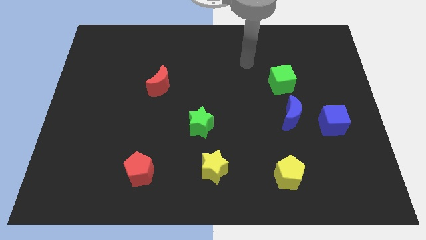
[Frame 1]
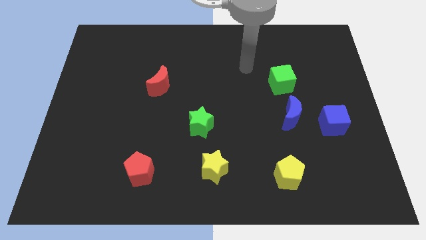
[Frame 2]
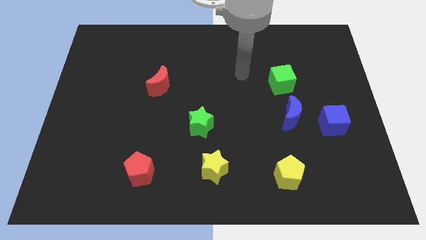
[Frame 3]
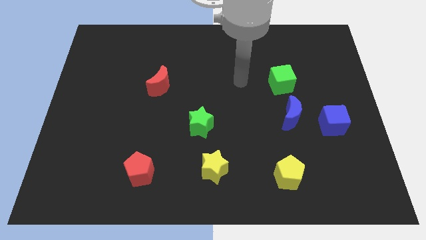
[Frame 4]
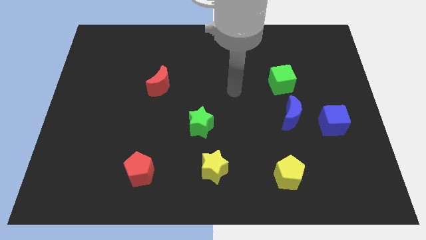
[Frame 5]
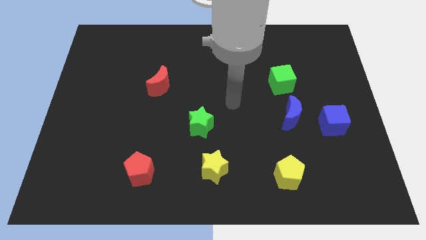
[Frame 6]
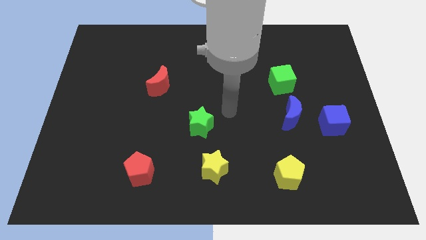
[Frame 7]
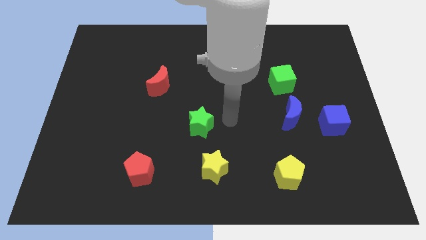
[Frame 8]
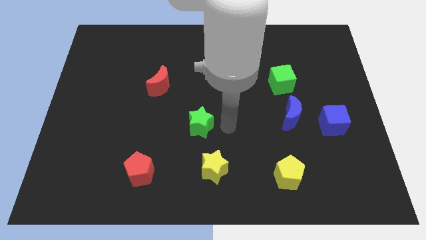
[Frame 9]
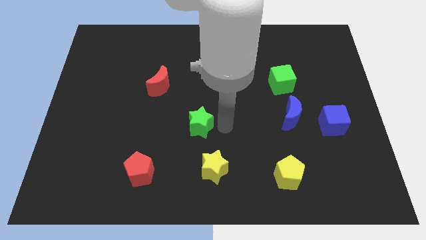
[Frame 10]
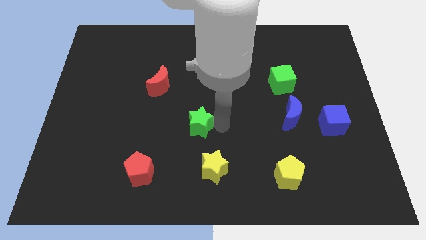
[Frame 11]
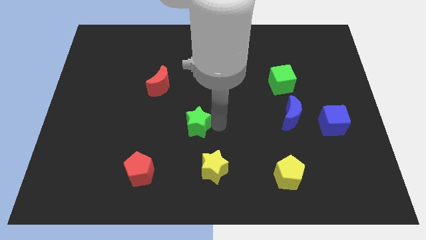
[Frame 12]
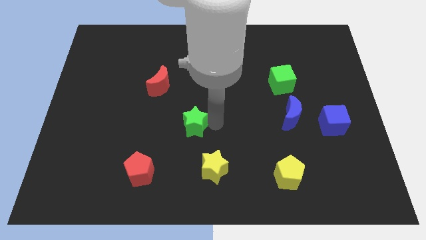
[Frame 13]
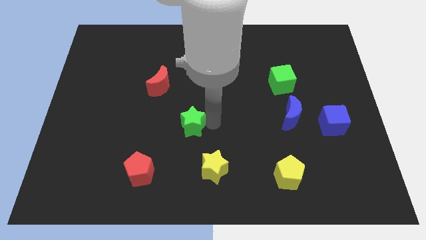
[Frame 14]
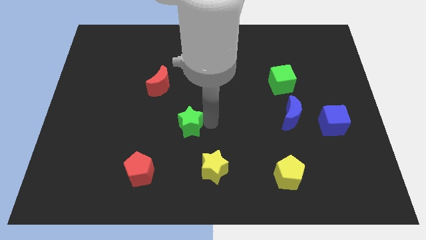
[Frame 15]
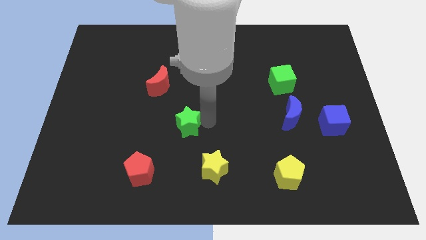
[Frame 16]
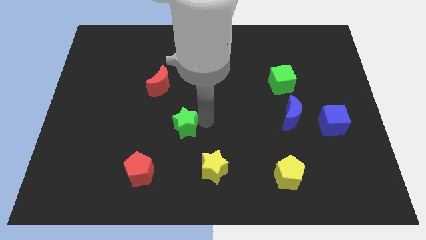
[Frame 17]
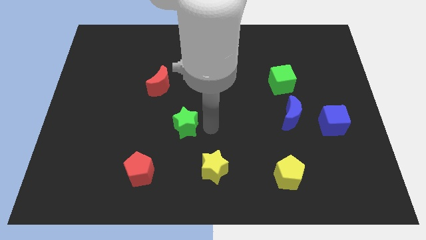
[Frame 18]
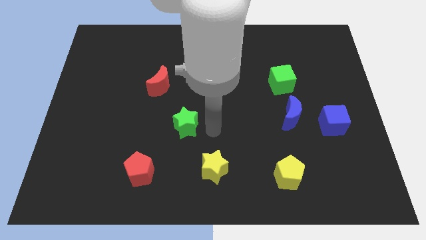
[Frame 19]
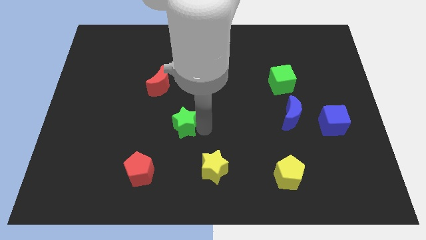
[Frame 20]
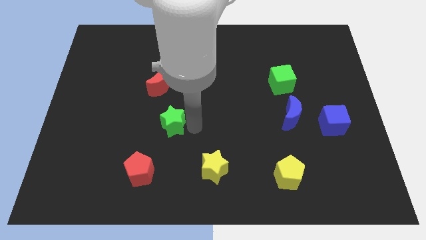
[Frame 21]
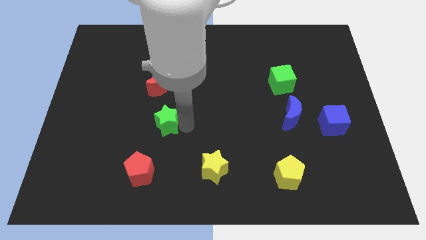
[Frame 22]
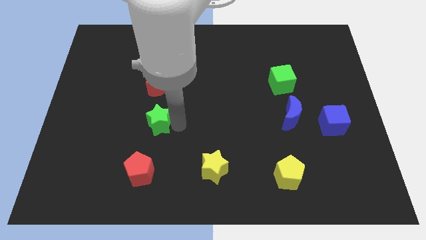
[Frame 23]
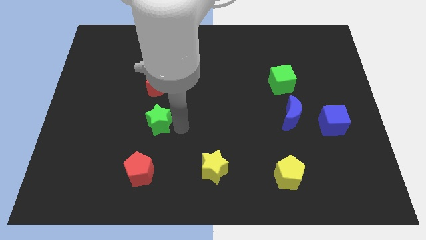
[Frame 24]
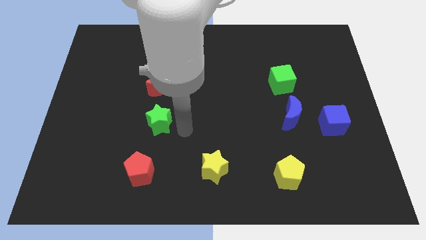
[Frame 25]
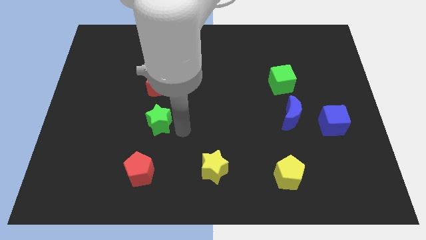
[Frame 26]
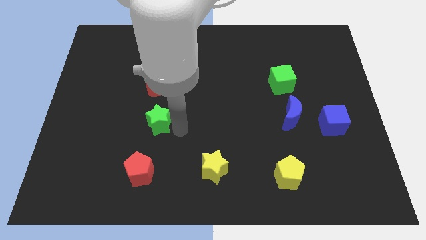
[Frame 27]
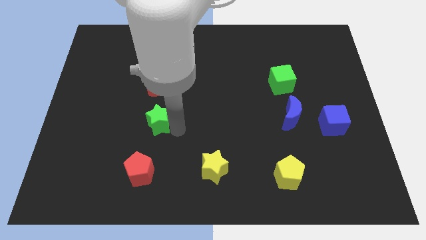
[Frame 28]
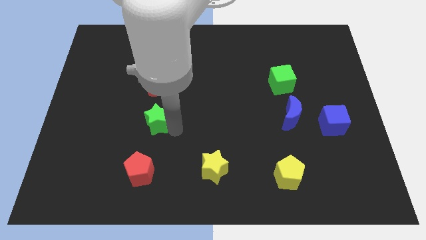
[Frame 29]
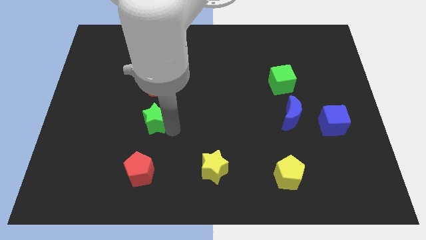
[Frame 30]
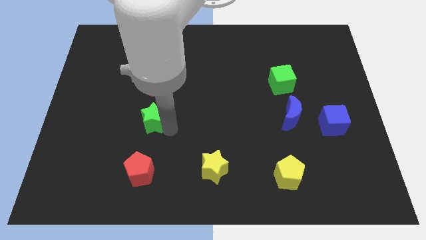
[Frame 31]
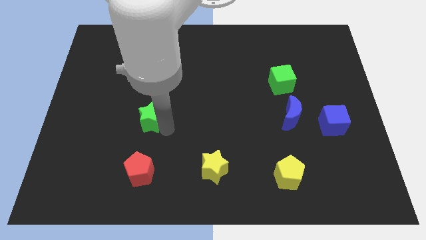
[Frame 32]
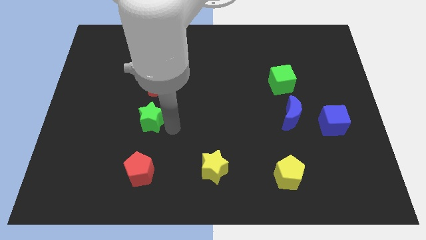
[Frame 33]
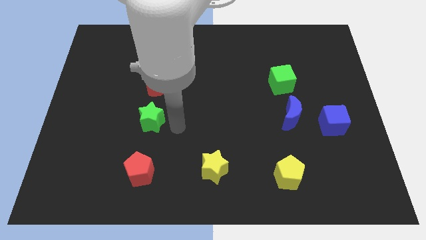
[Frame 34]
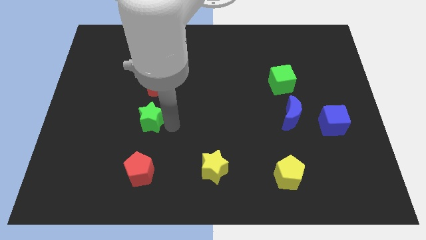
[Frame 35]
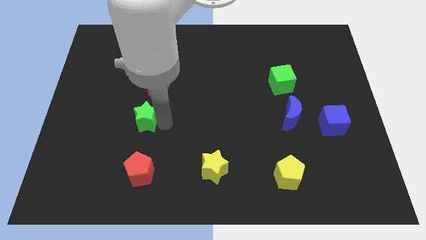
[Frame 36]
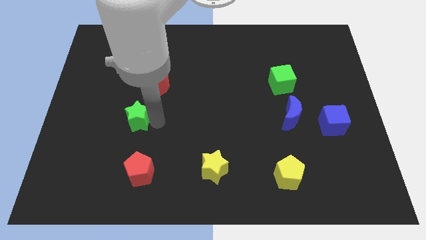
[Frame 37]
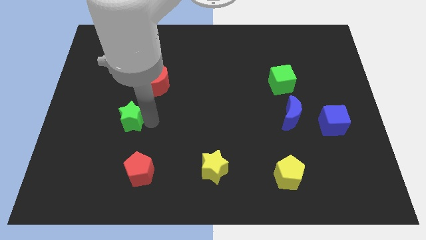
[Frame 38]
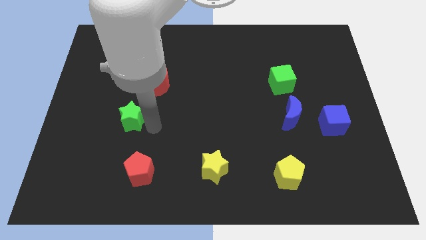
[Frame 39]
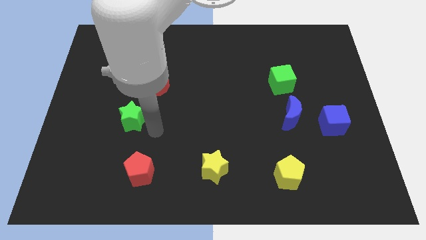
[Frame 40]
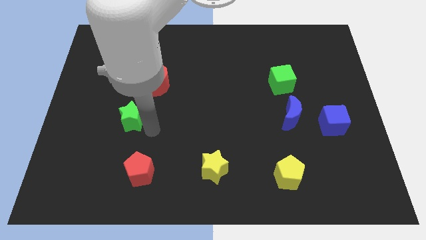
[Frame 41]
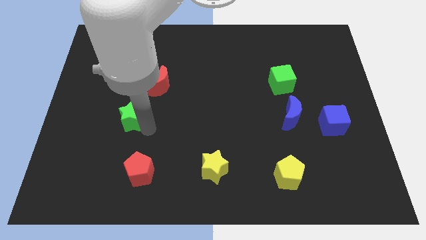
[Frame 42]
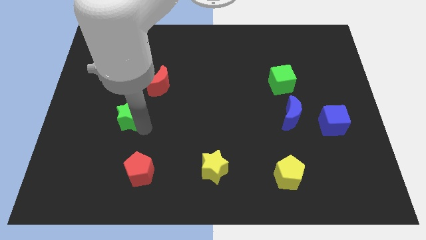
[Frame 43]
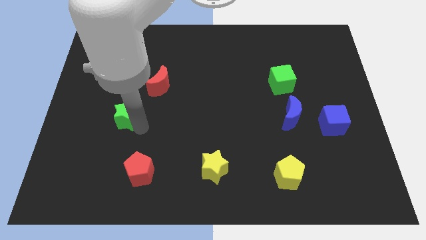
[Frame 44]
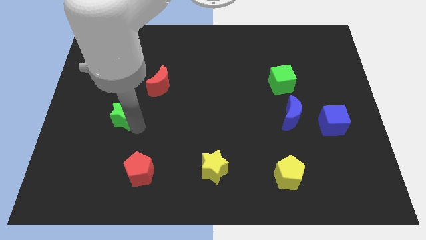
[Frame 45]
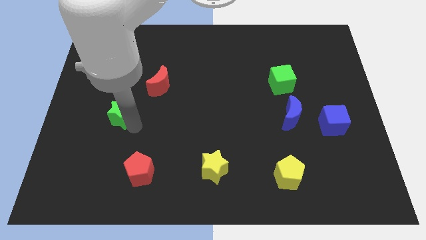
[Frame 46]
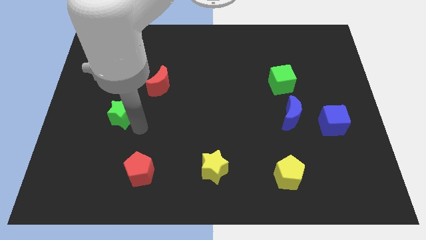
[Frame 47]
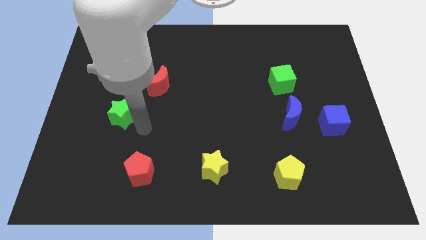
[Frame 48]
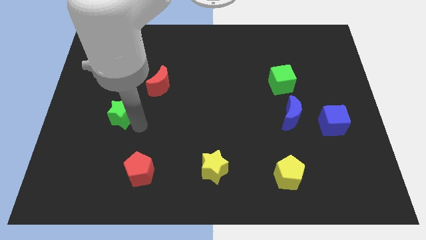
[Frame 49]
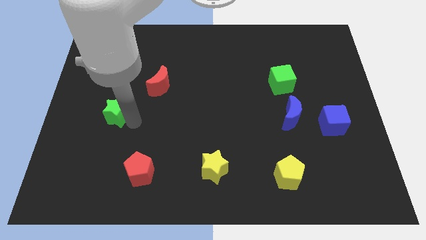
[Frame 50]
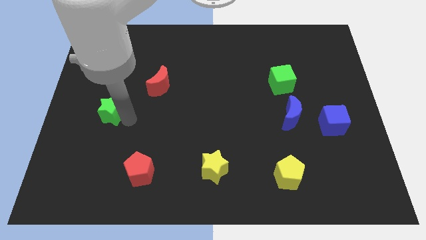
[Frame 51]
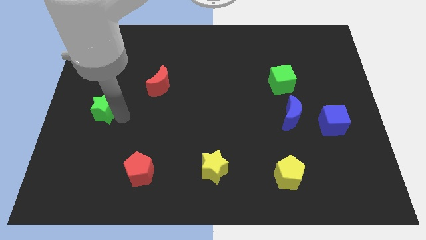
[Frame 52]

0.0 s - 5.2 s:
push the green star to the left side

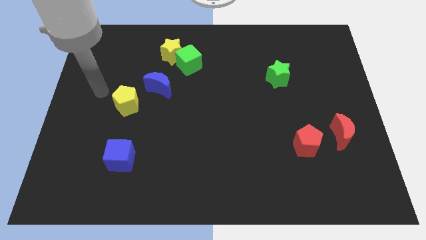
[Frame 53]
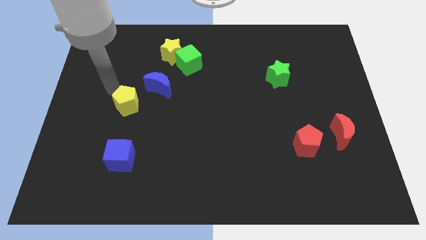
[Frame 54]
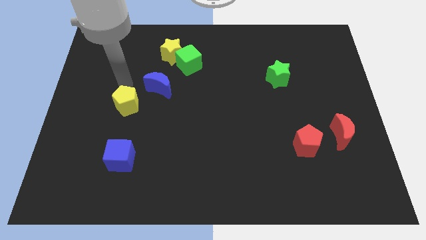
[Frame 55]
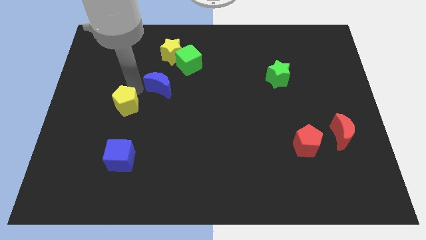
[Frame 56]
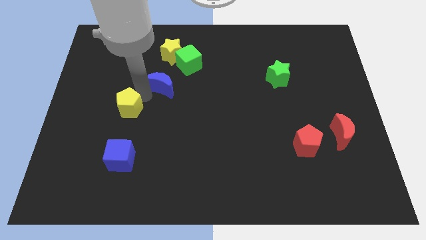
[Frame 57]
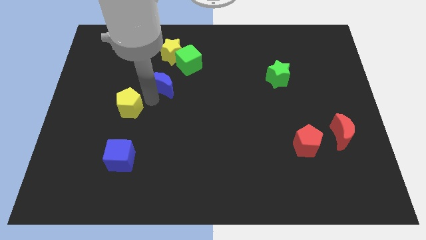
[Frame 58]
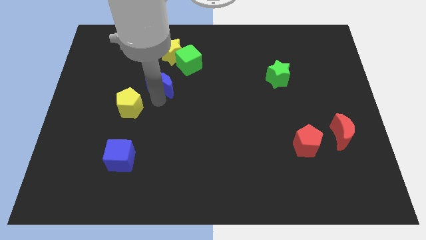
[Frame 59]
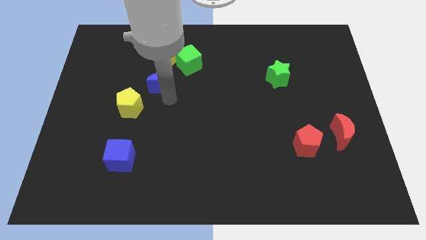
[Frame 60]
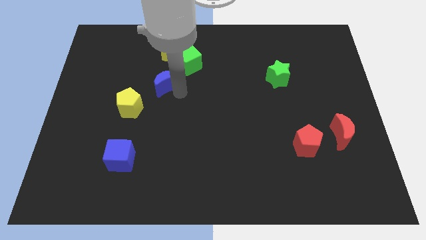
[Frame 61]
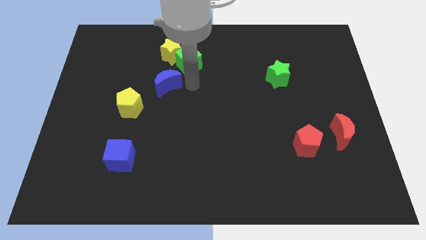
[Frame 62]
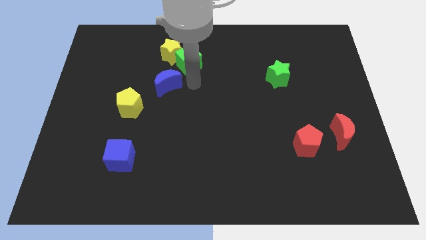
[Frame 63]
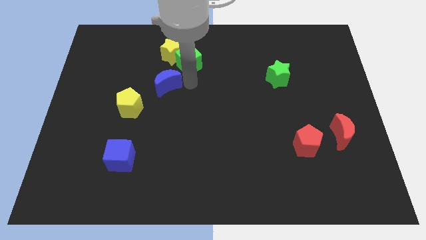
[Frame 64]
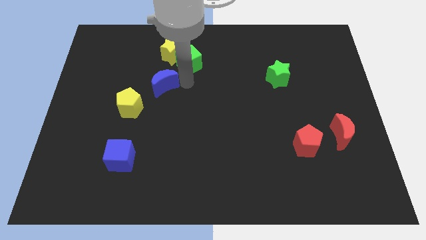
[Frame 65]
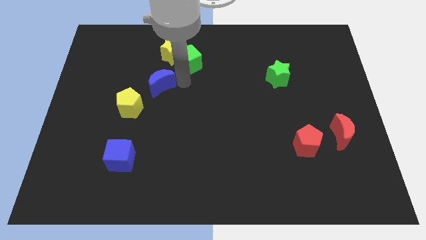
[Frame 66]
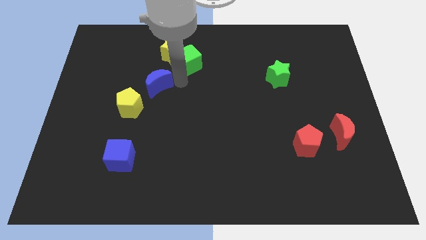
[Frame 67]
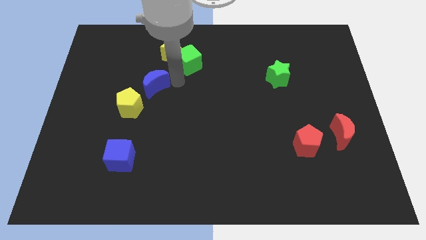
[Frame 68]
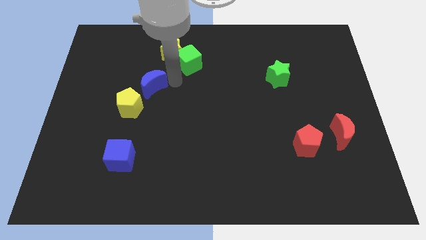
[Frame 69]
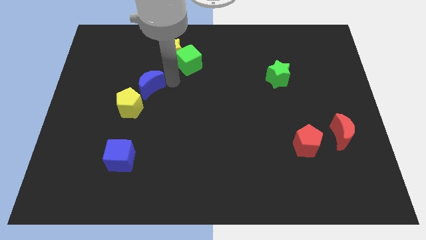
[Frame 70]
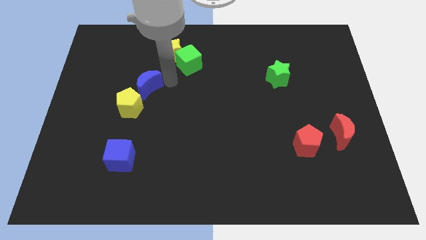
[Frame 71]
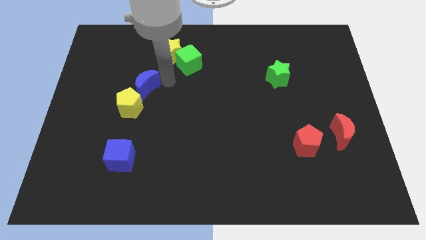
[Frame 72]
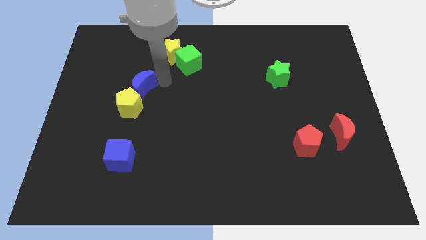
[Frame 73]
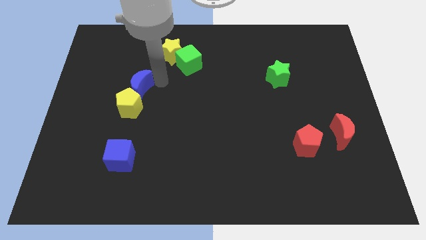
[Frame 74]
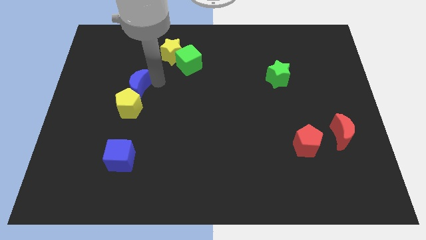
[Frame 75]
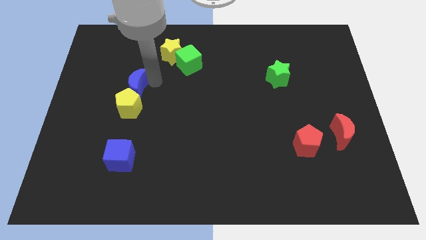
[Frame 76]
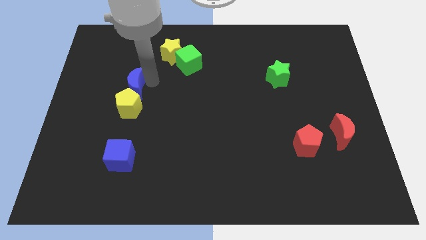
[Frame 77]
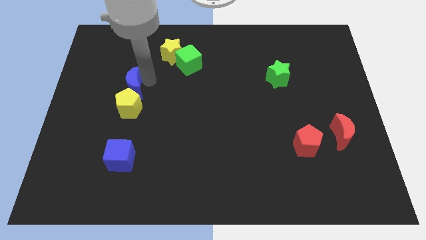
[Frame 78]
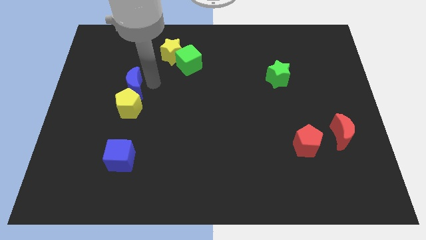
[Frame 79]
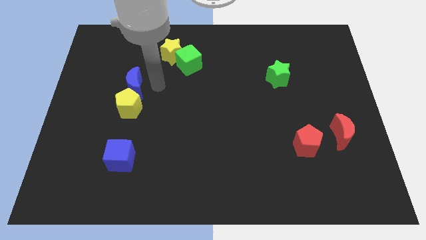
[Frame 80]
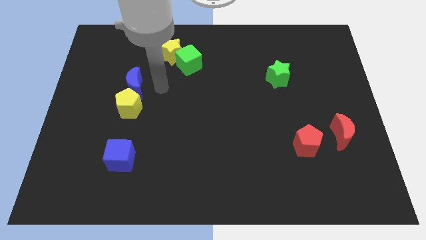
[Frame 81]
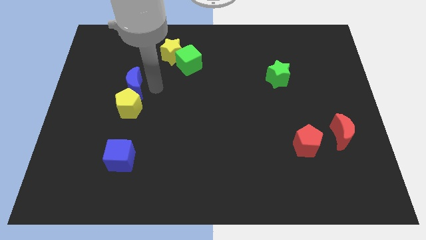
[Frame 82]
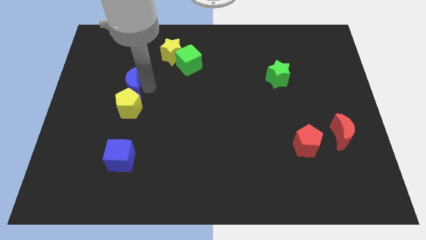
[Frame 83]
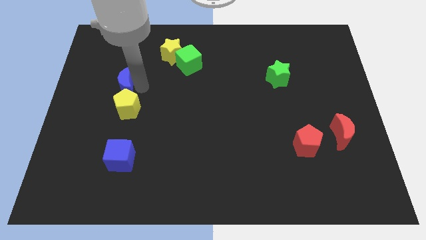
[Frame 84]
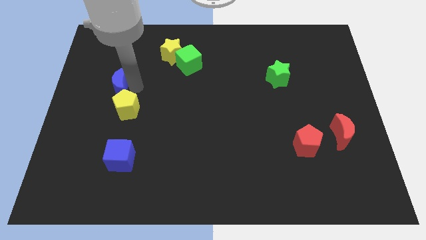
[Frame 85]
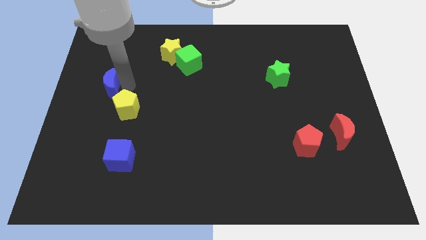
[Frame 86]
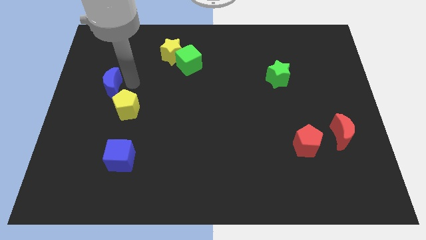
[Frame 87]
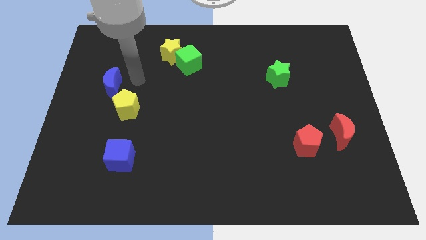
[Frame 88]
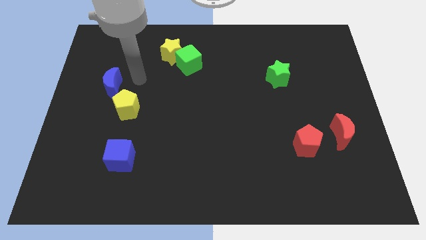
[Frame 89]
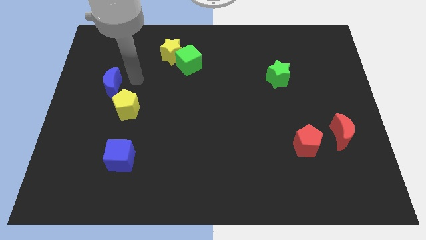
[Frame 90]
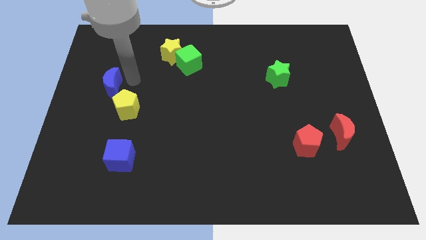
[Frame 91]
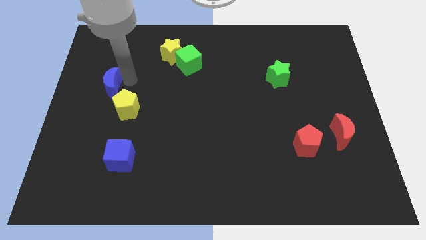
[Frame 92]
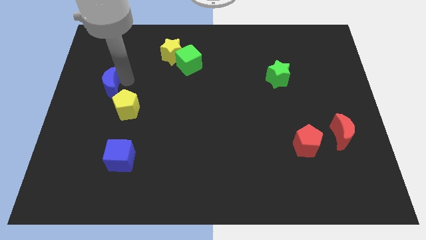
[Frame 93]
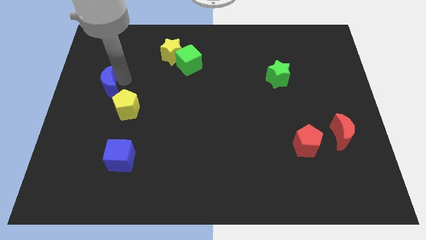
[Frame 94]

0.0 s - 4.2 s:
move the blue moon to the left side of the board
